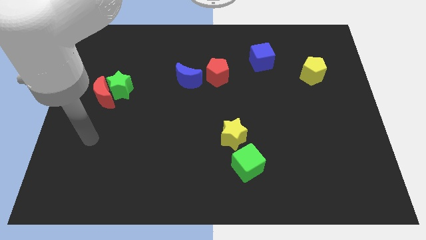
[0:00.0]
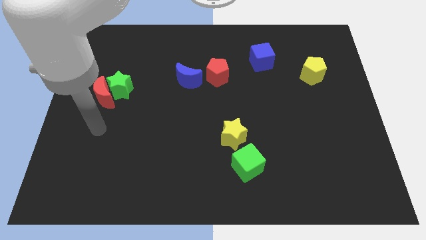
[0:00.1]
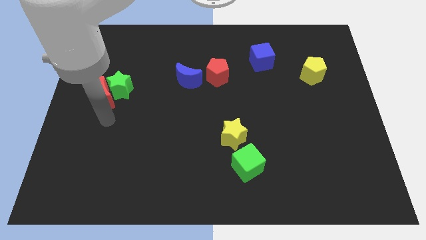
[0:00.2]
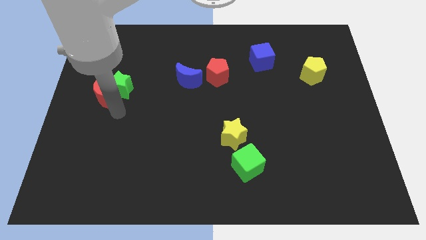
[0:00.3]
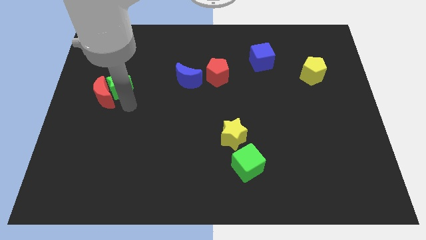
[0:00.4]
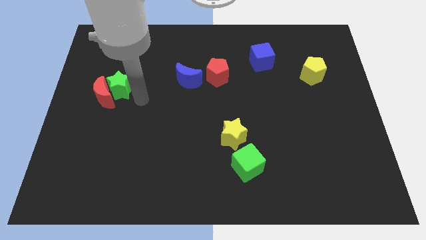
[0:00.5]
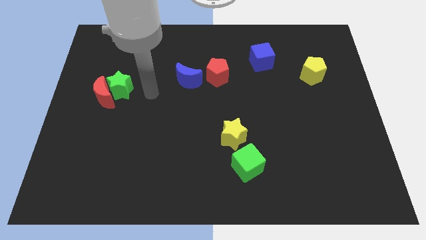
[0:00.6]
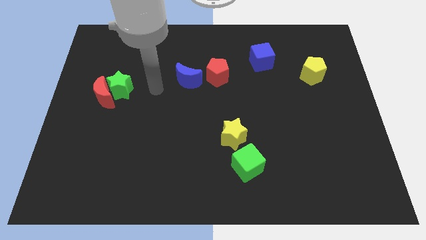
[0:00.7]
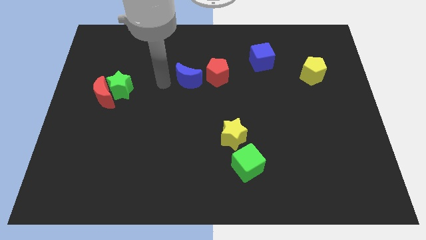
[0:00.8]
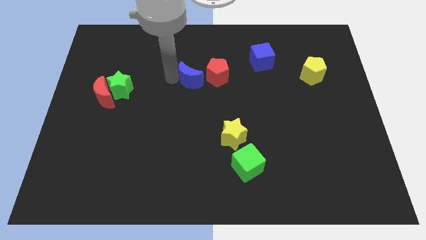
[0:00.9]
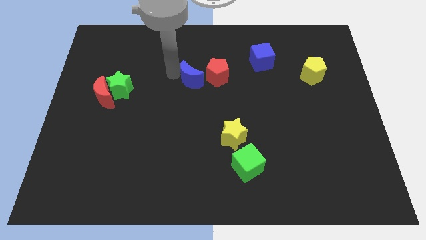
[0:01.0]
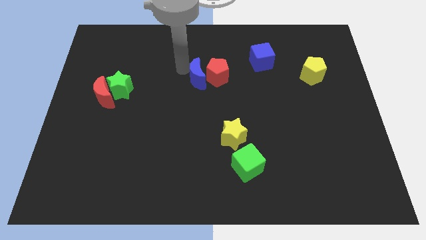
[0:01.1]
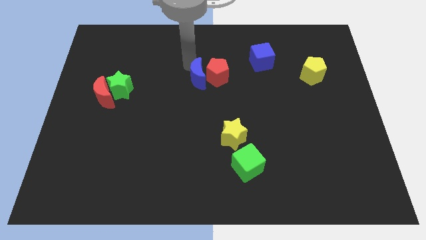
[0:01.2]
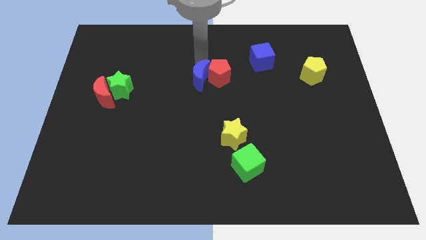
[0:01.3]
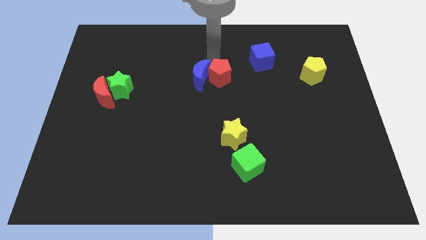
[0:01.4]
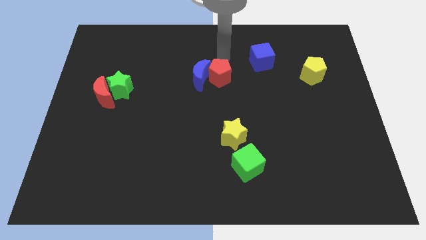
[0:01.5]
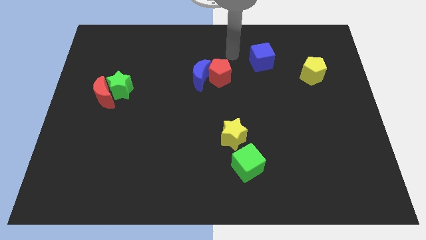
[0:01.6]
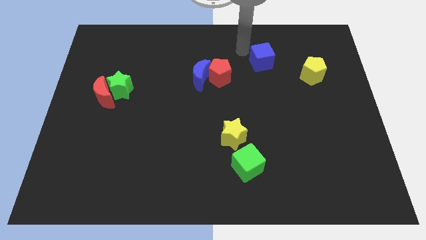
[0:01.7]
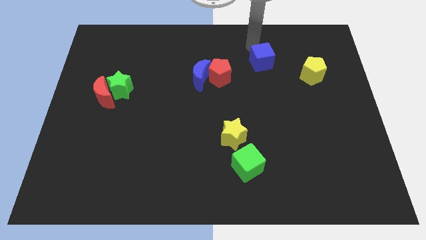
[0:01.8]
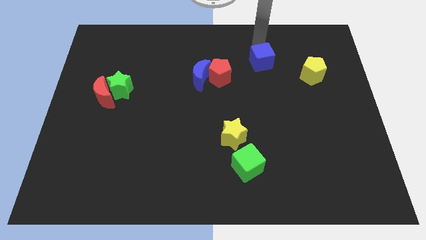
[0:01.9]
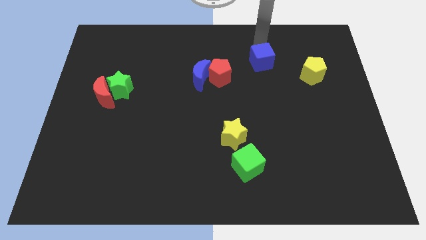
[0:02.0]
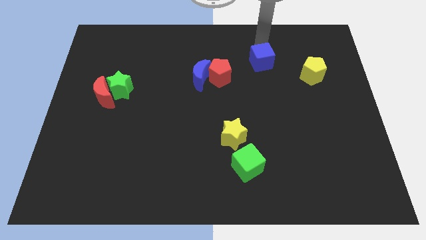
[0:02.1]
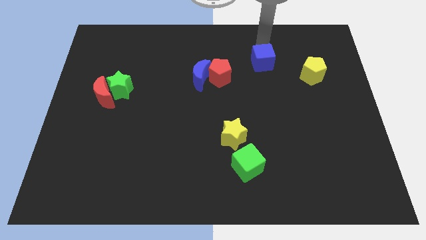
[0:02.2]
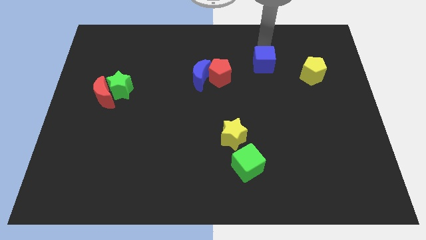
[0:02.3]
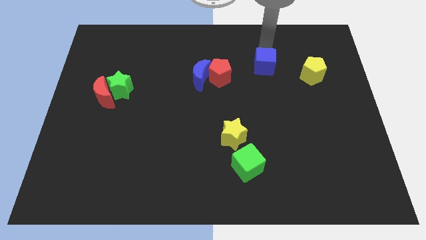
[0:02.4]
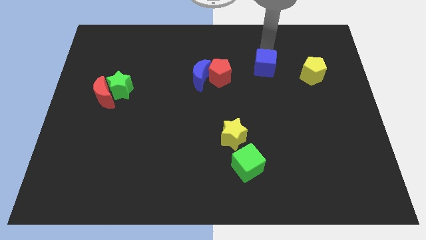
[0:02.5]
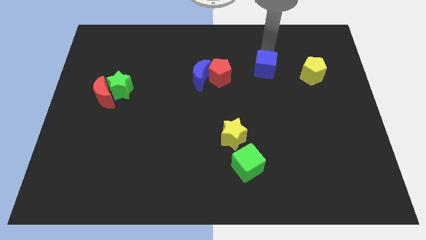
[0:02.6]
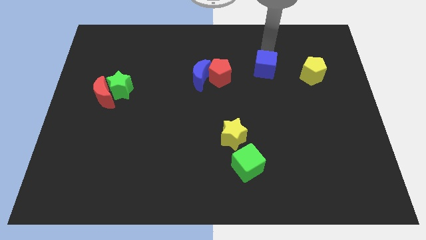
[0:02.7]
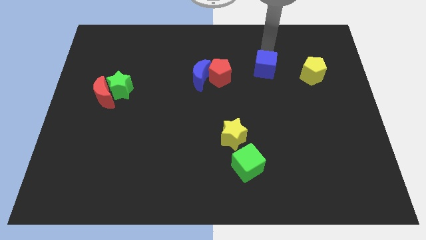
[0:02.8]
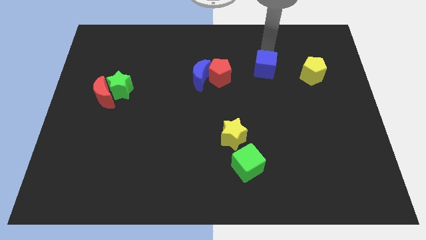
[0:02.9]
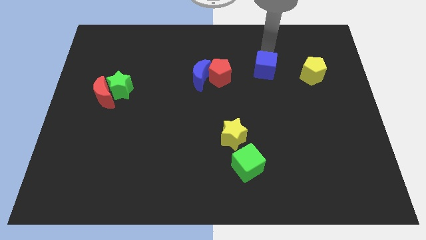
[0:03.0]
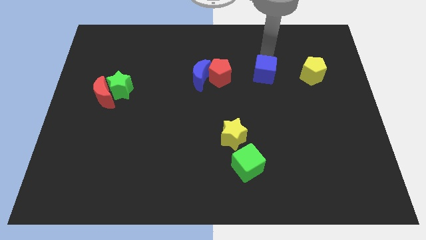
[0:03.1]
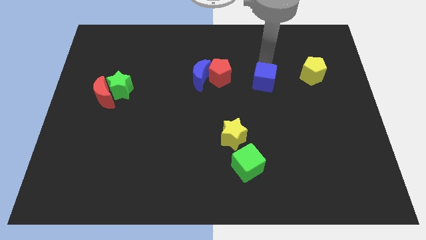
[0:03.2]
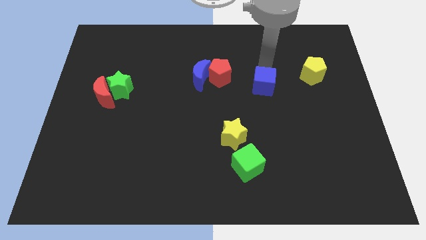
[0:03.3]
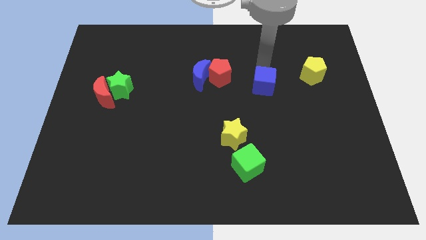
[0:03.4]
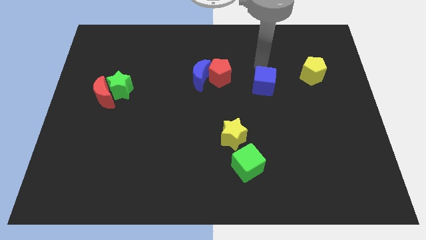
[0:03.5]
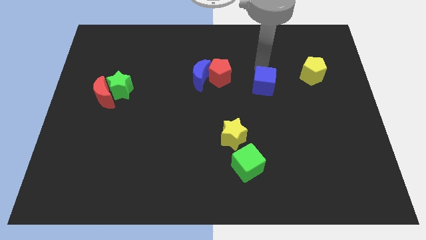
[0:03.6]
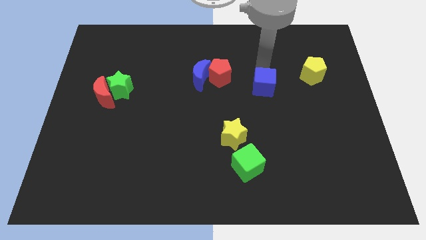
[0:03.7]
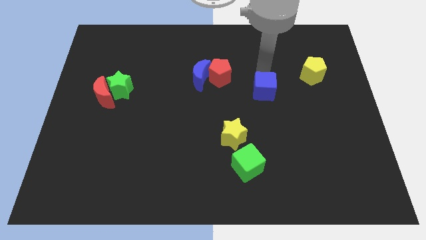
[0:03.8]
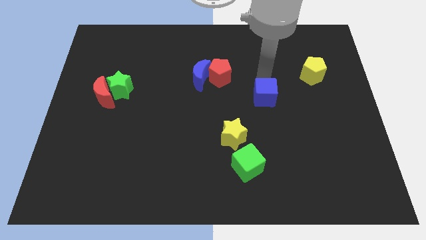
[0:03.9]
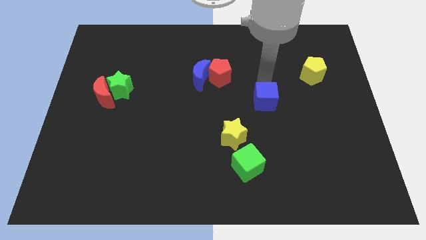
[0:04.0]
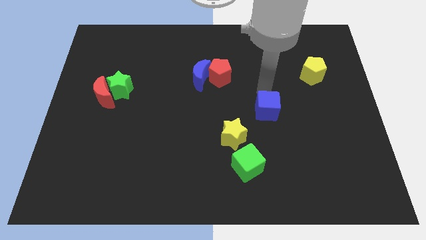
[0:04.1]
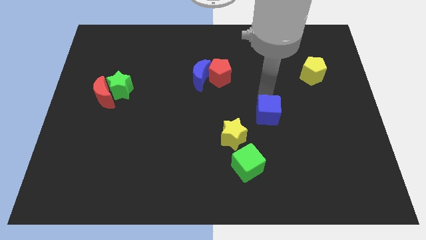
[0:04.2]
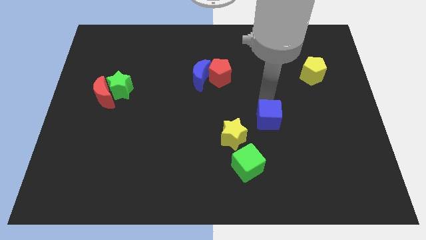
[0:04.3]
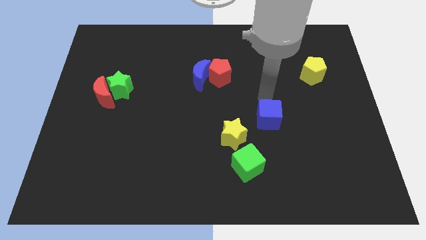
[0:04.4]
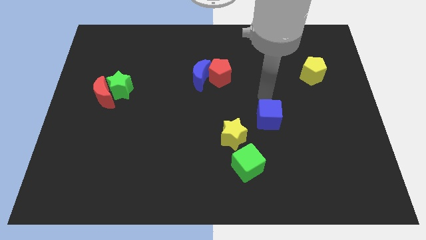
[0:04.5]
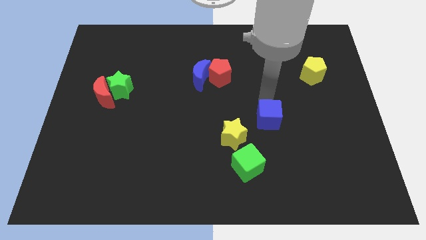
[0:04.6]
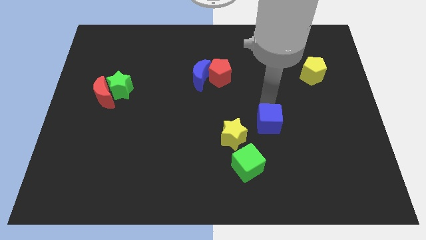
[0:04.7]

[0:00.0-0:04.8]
move the blue cube down

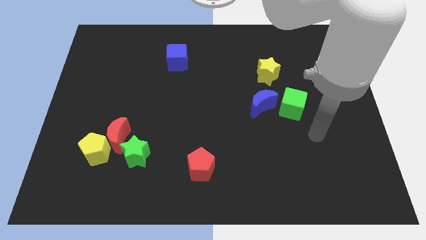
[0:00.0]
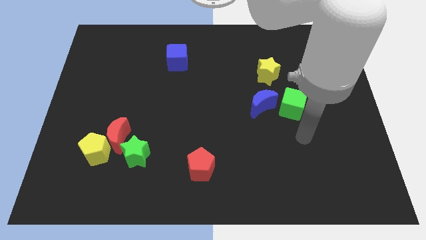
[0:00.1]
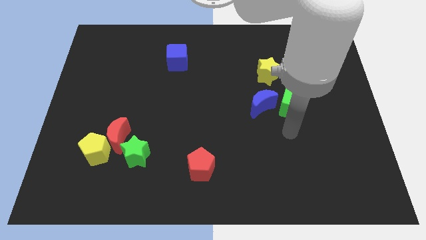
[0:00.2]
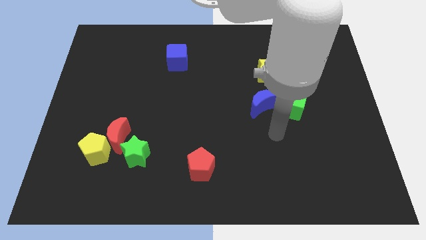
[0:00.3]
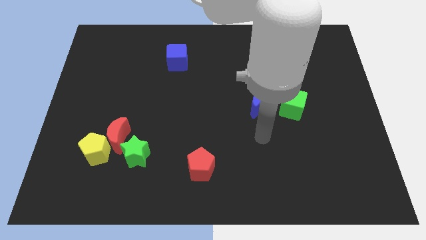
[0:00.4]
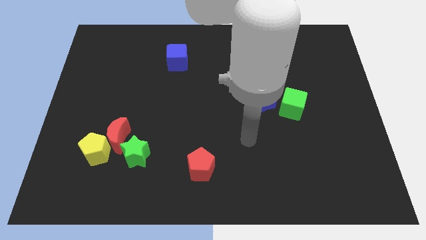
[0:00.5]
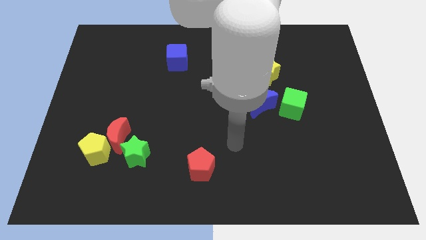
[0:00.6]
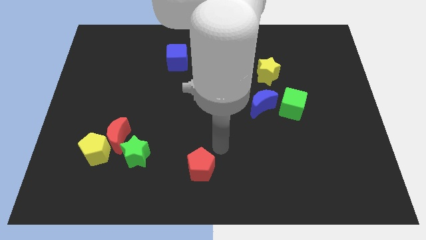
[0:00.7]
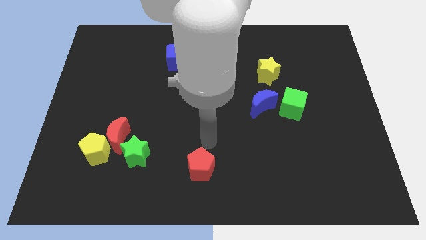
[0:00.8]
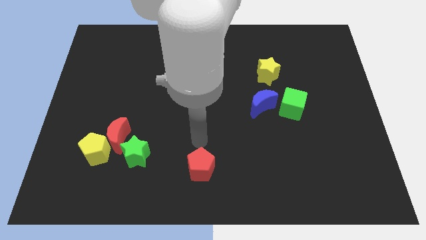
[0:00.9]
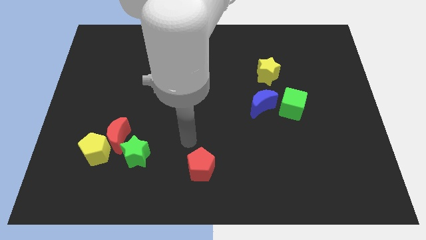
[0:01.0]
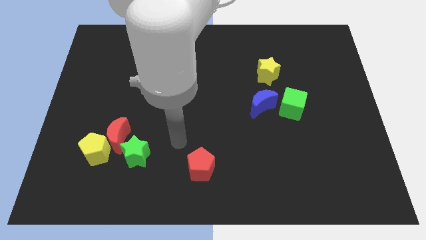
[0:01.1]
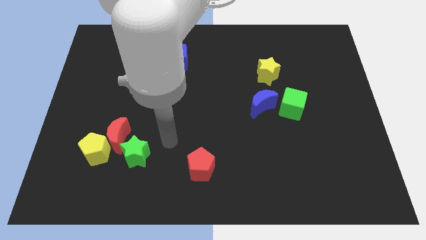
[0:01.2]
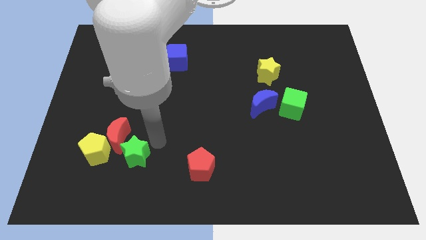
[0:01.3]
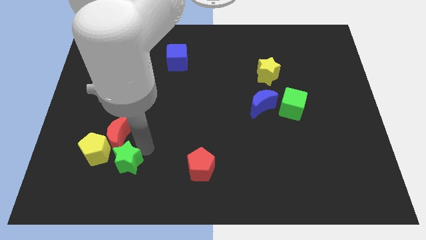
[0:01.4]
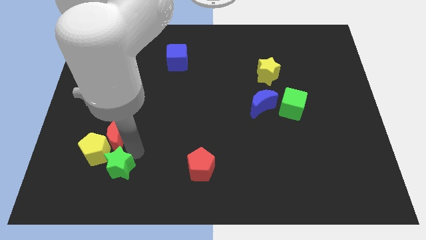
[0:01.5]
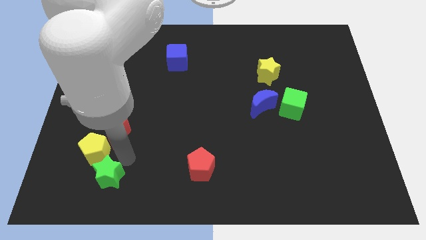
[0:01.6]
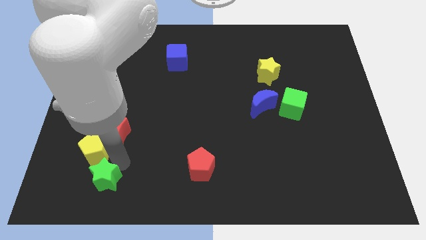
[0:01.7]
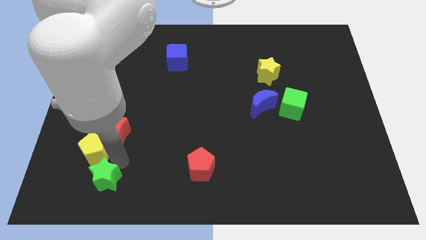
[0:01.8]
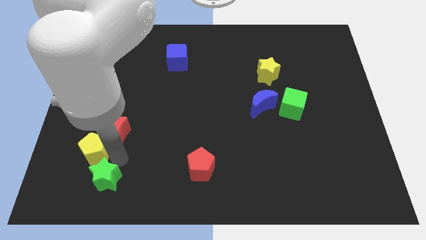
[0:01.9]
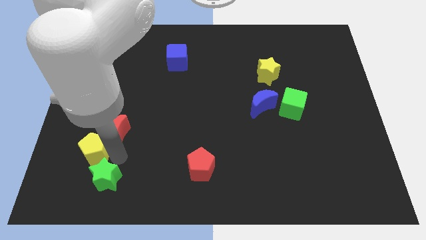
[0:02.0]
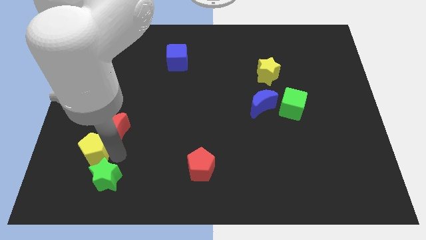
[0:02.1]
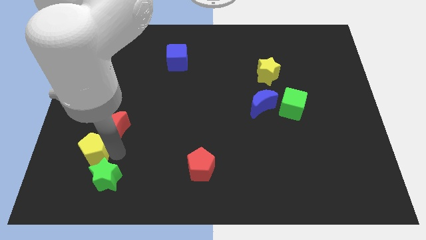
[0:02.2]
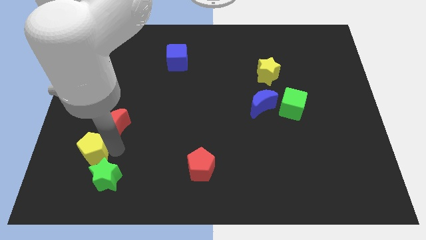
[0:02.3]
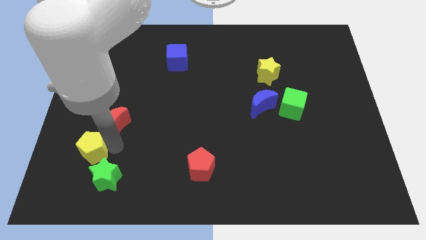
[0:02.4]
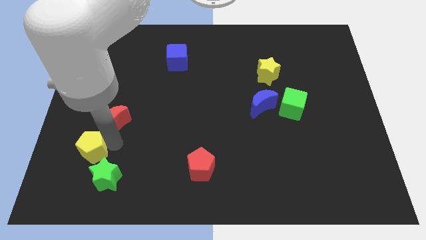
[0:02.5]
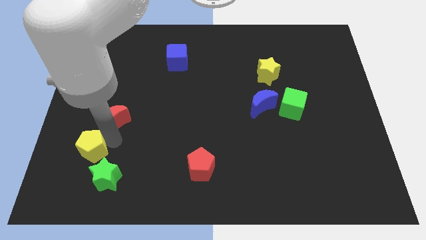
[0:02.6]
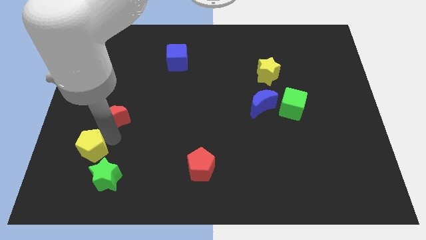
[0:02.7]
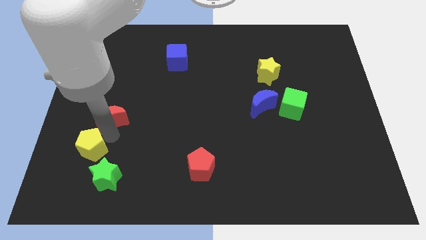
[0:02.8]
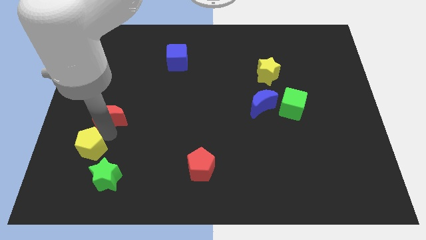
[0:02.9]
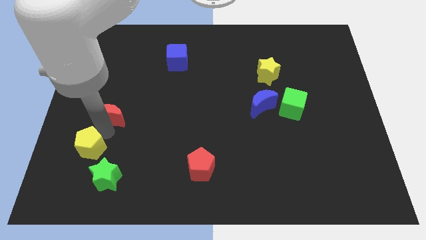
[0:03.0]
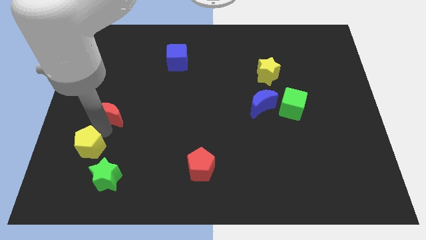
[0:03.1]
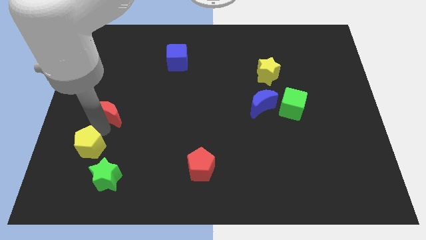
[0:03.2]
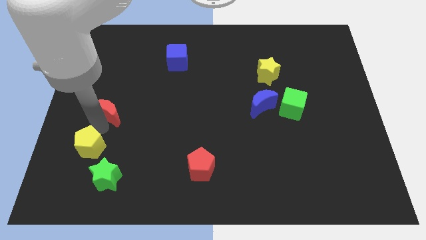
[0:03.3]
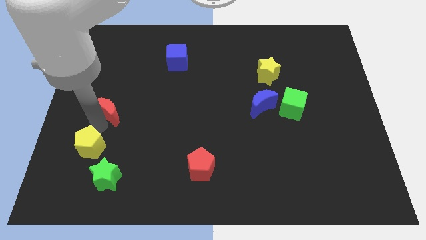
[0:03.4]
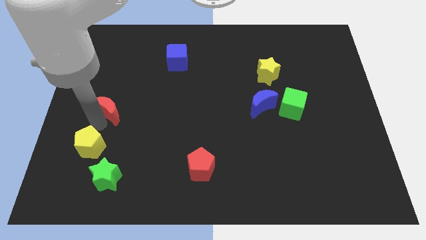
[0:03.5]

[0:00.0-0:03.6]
slightly slide the red moon up
